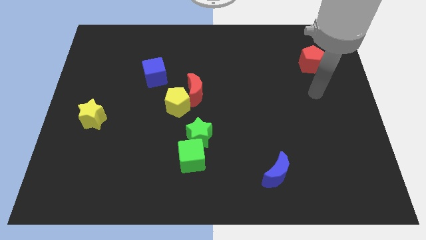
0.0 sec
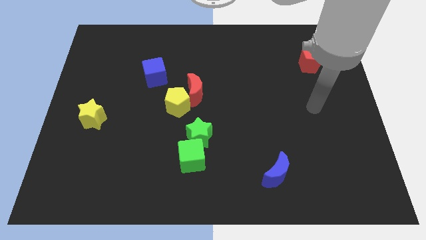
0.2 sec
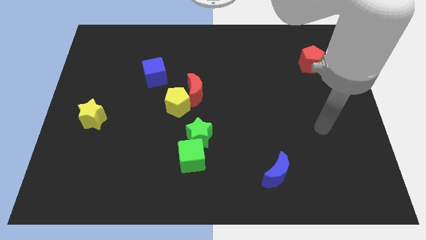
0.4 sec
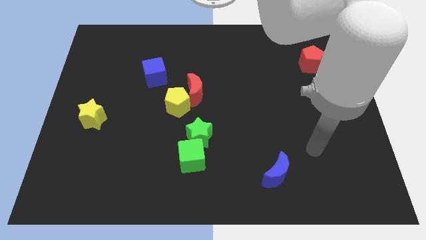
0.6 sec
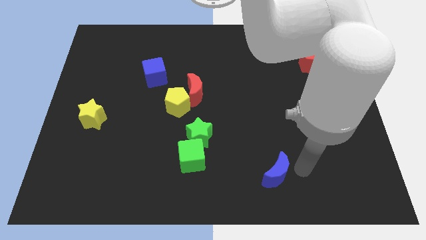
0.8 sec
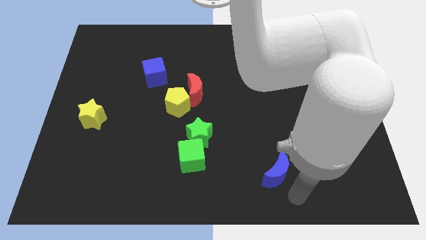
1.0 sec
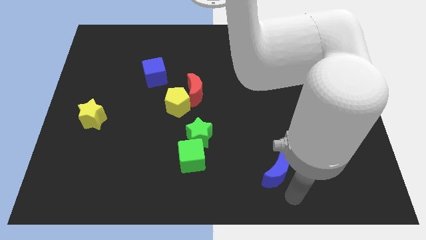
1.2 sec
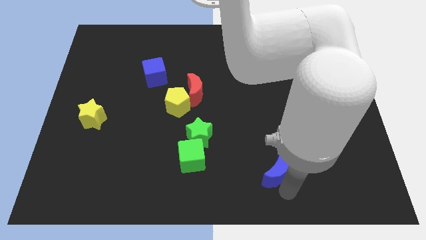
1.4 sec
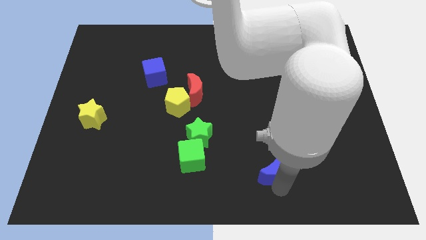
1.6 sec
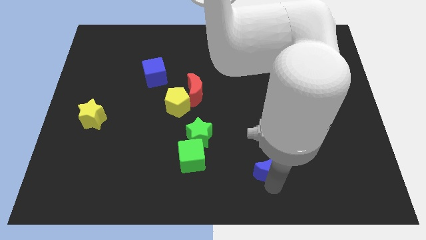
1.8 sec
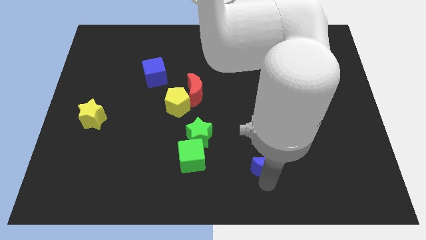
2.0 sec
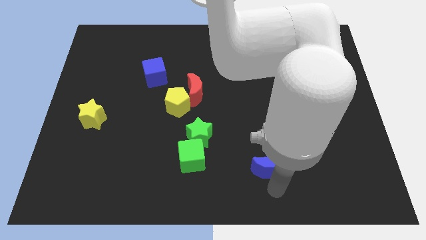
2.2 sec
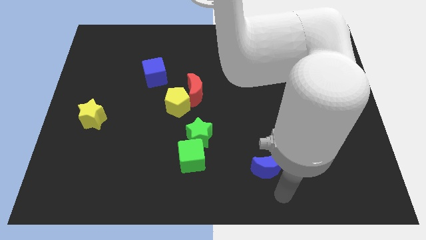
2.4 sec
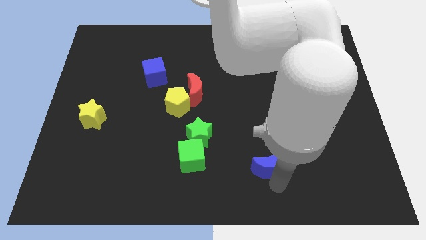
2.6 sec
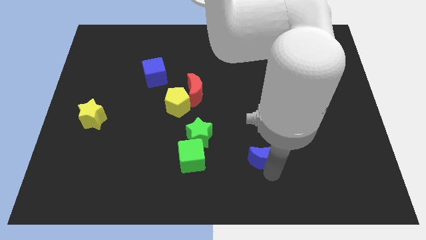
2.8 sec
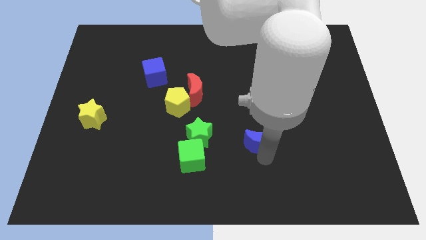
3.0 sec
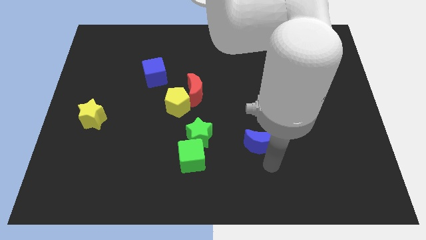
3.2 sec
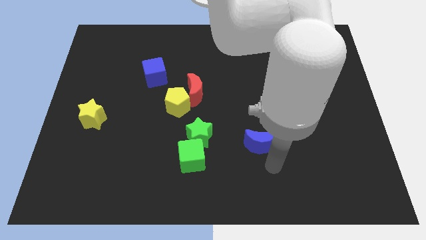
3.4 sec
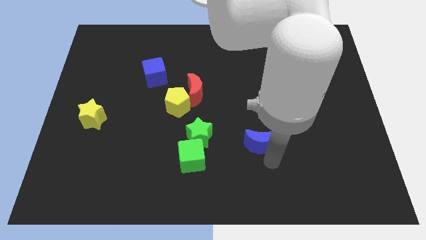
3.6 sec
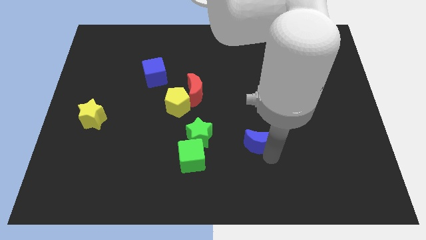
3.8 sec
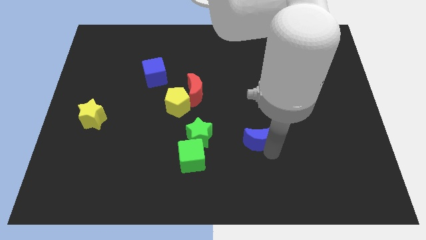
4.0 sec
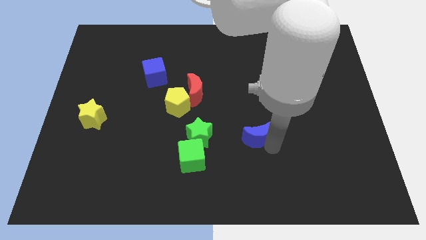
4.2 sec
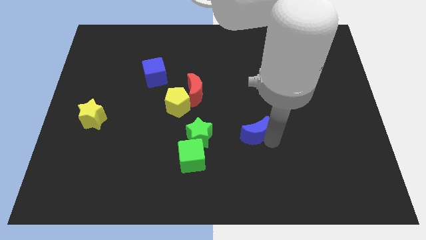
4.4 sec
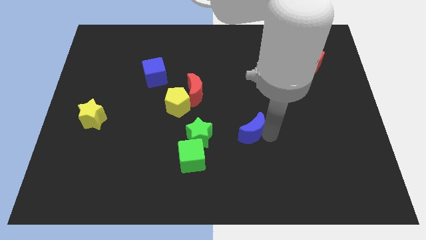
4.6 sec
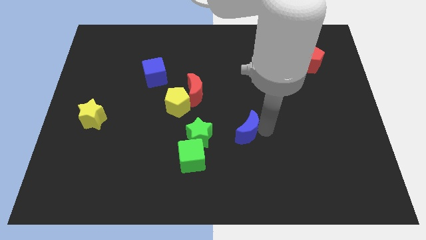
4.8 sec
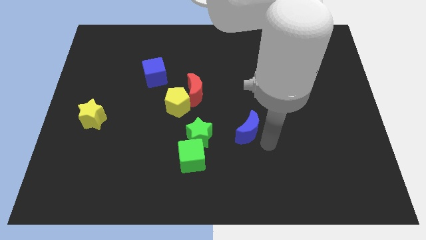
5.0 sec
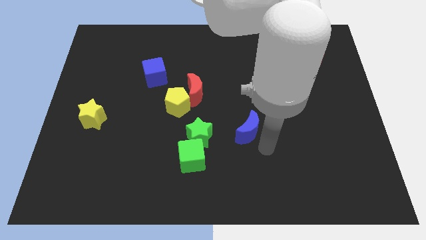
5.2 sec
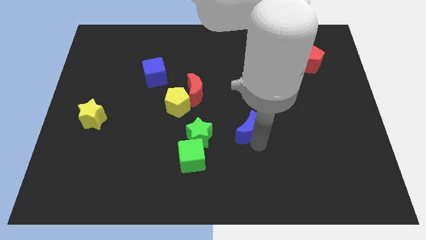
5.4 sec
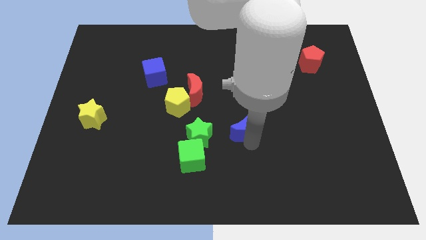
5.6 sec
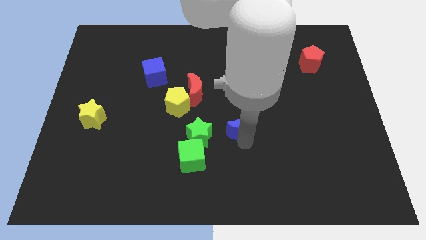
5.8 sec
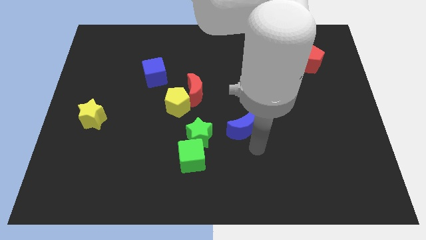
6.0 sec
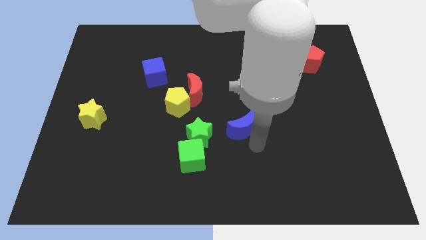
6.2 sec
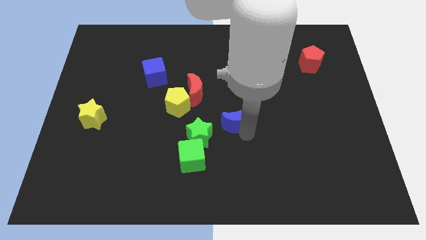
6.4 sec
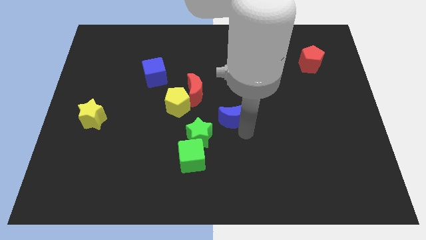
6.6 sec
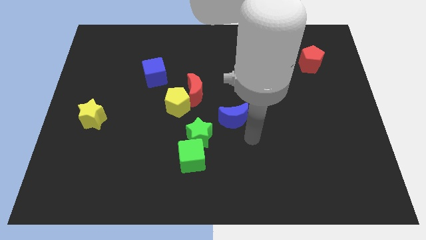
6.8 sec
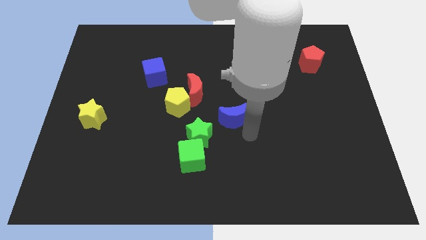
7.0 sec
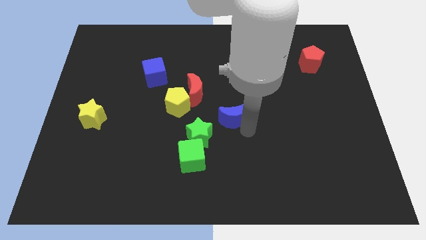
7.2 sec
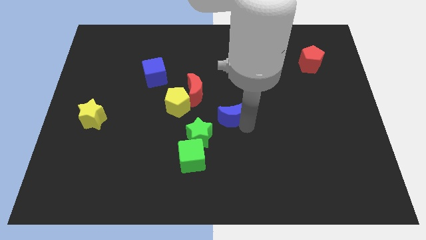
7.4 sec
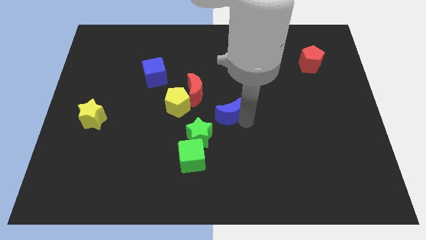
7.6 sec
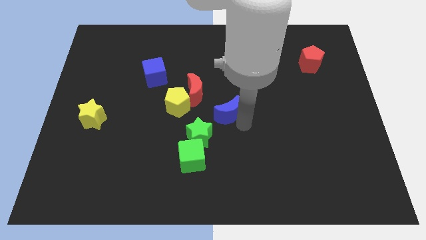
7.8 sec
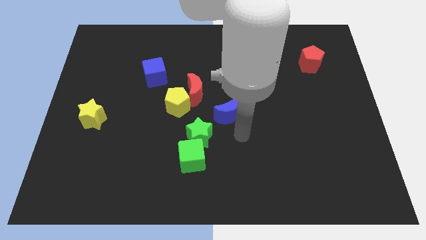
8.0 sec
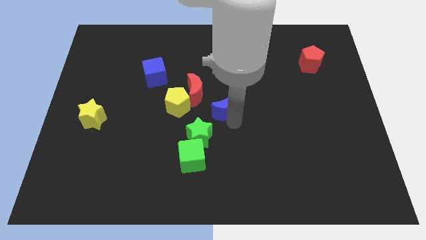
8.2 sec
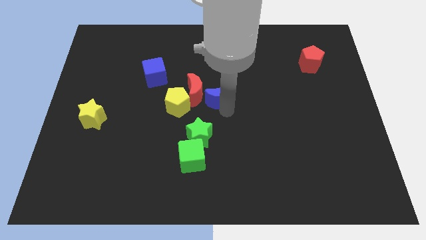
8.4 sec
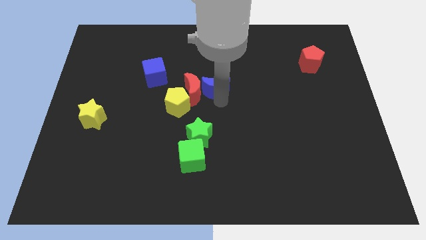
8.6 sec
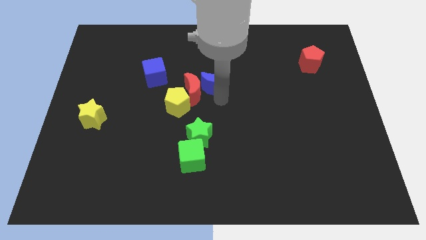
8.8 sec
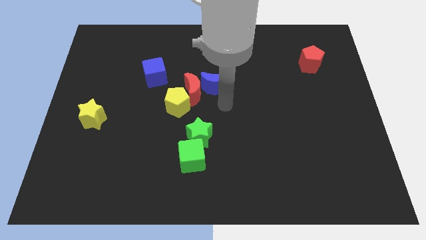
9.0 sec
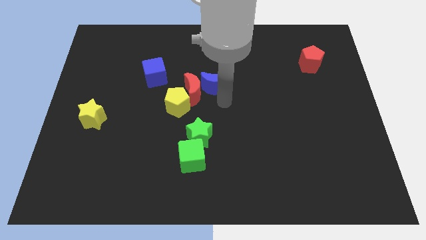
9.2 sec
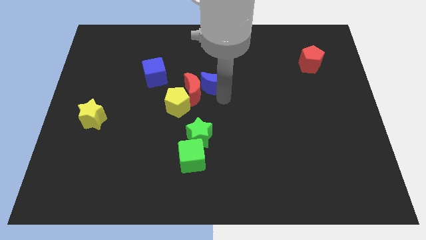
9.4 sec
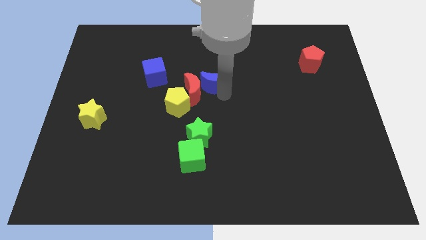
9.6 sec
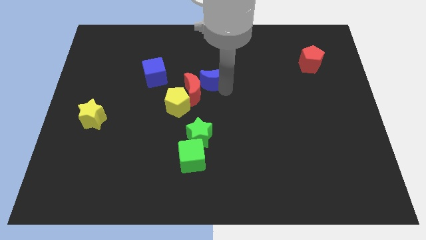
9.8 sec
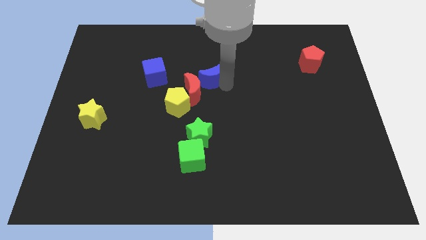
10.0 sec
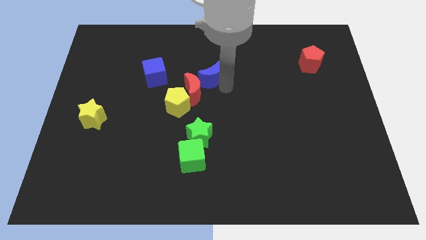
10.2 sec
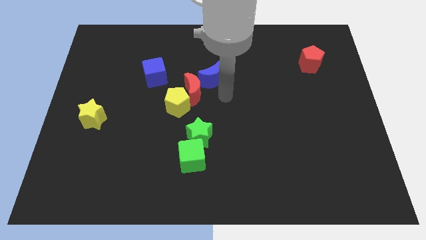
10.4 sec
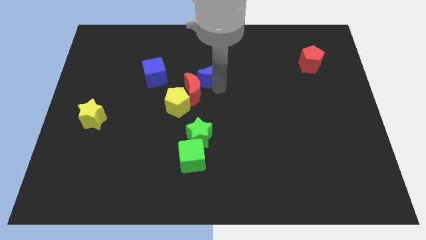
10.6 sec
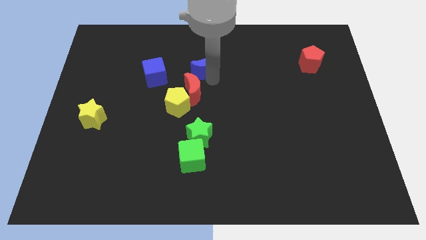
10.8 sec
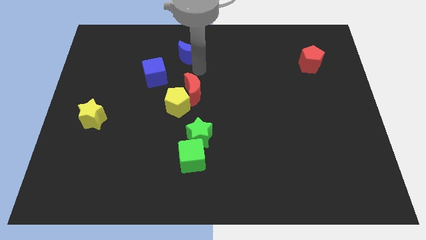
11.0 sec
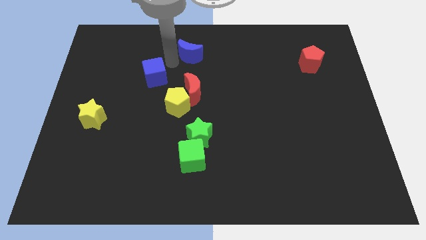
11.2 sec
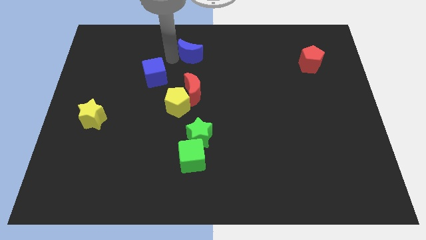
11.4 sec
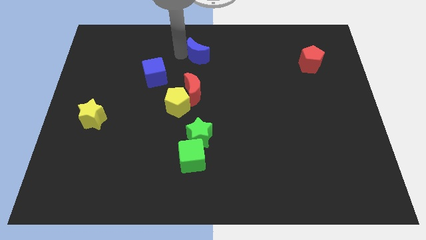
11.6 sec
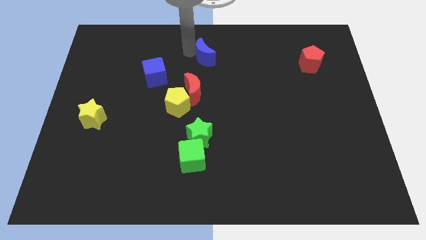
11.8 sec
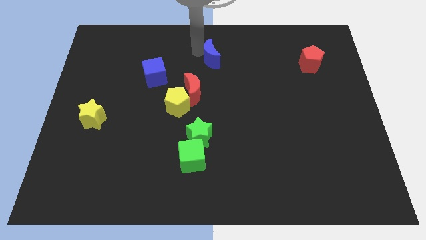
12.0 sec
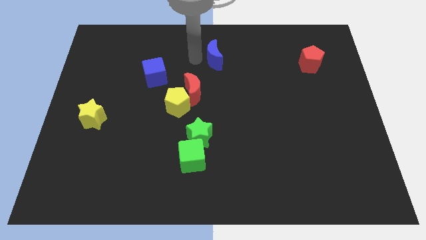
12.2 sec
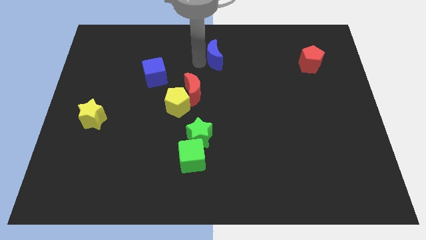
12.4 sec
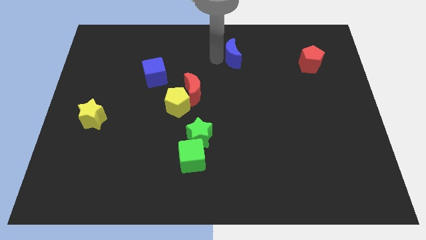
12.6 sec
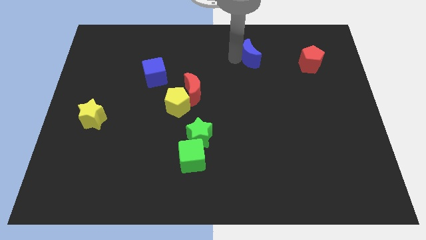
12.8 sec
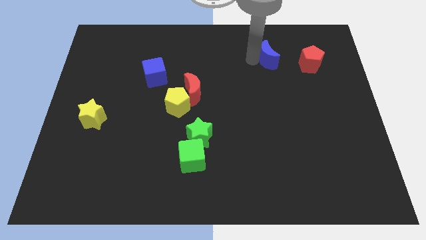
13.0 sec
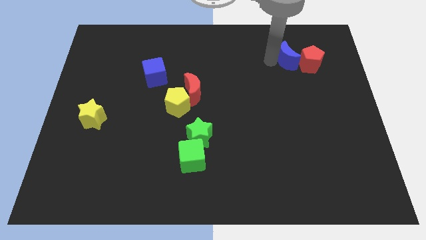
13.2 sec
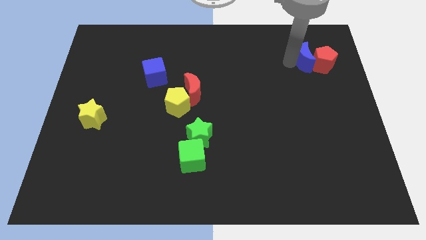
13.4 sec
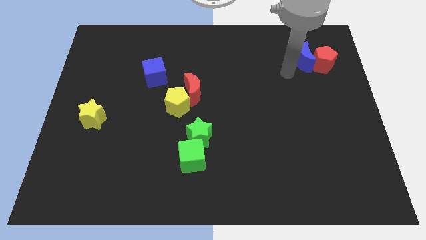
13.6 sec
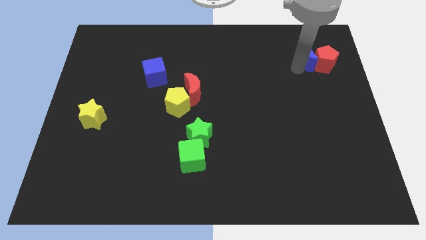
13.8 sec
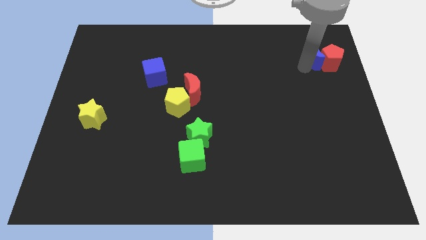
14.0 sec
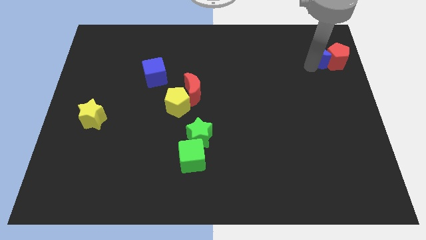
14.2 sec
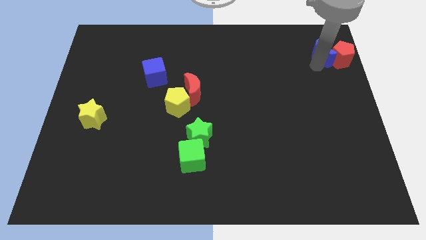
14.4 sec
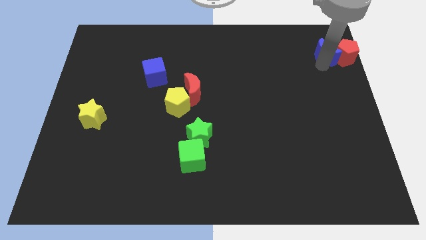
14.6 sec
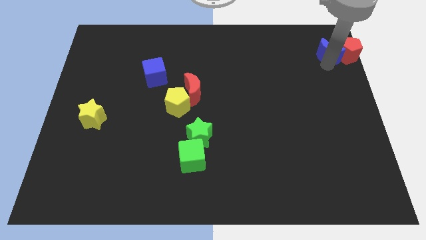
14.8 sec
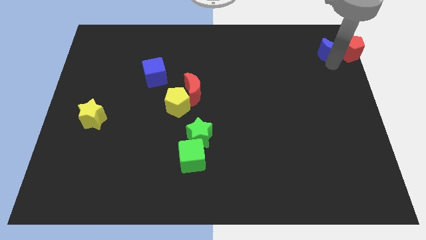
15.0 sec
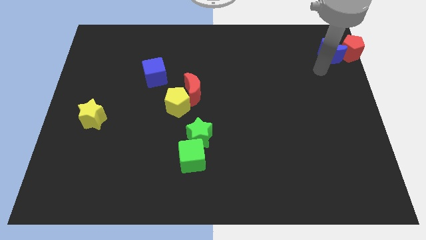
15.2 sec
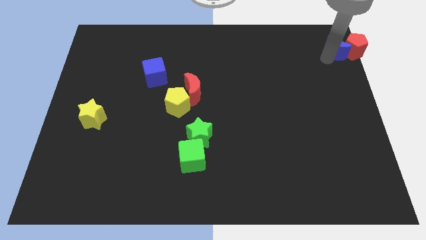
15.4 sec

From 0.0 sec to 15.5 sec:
push the blue moon to the top right of the board
